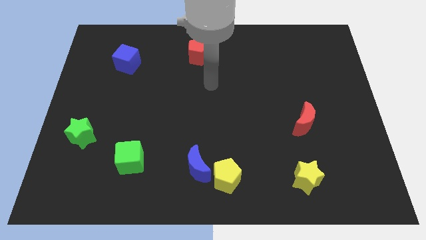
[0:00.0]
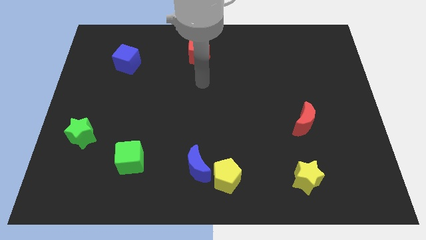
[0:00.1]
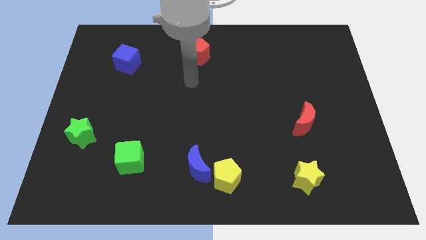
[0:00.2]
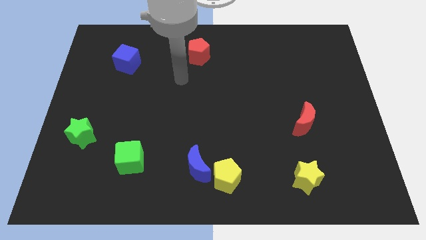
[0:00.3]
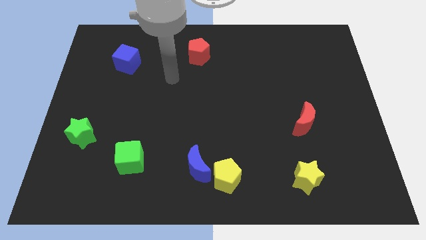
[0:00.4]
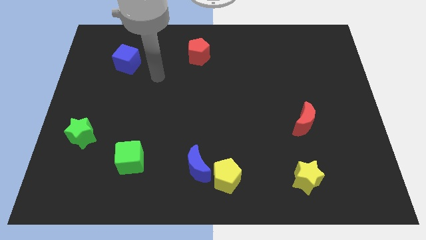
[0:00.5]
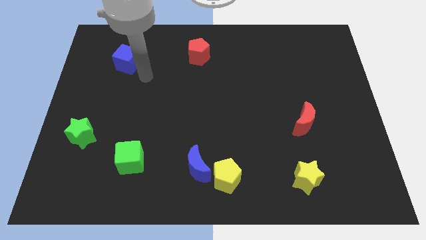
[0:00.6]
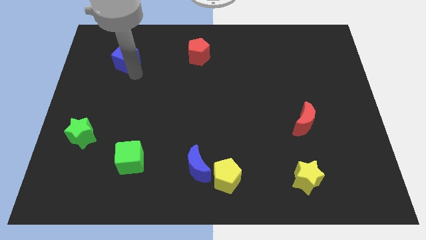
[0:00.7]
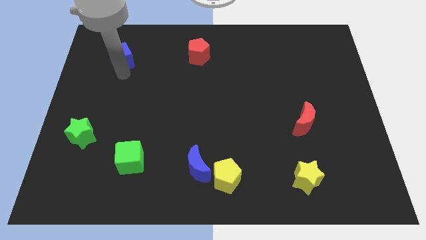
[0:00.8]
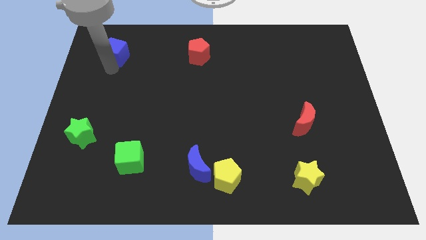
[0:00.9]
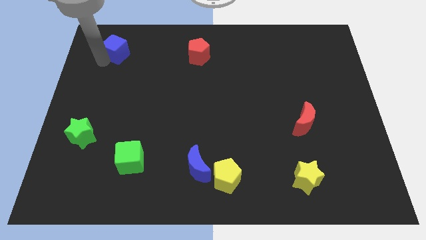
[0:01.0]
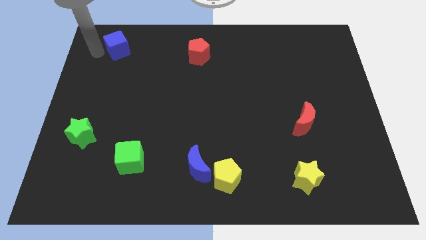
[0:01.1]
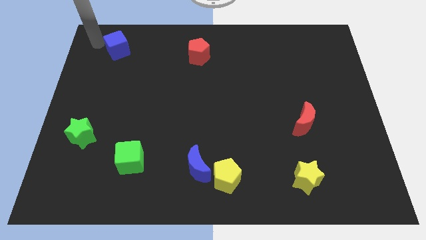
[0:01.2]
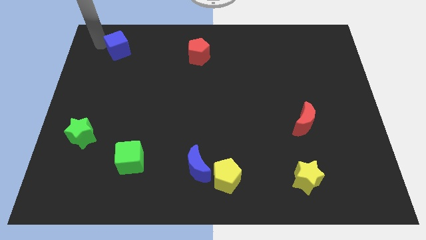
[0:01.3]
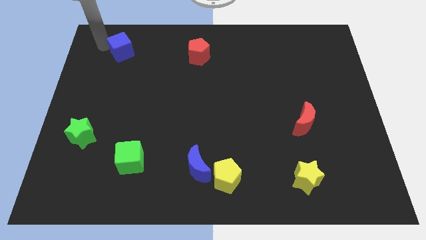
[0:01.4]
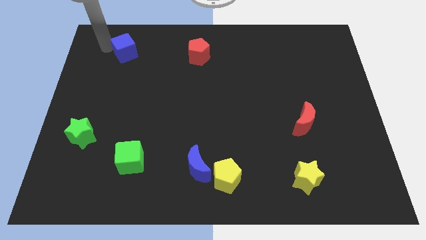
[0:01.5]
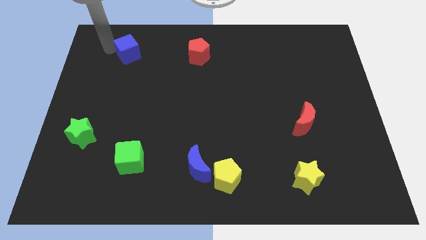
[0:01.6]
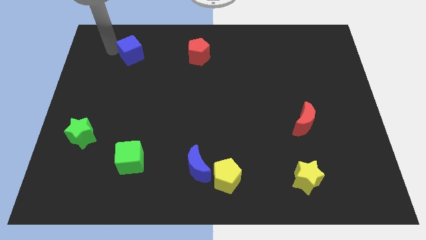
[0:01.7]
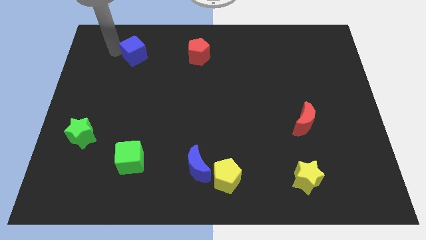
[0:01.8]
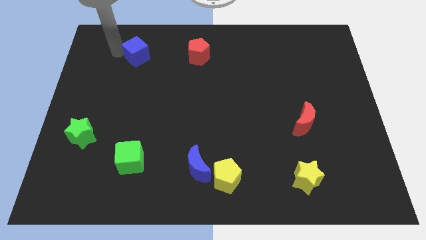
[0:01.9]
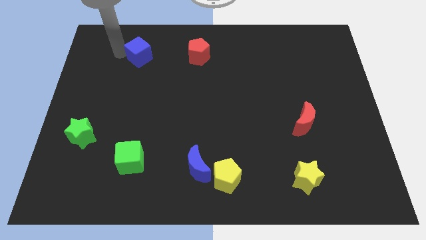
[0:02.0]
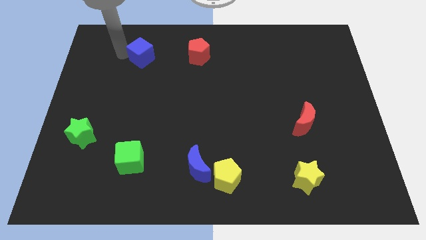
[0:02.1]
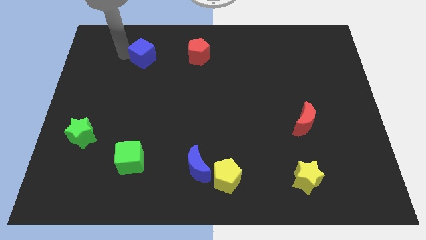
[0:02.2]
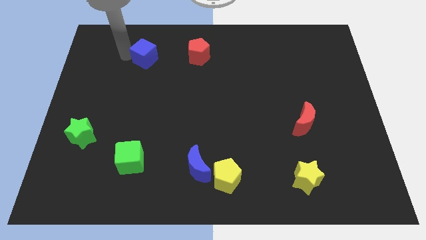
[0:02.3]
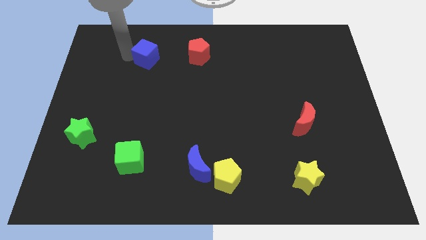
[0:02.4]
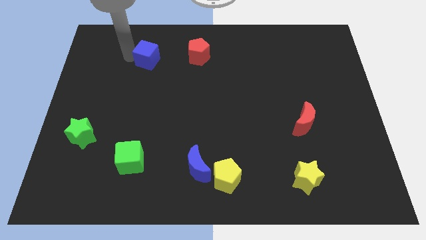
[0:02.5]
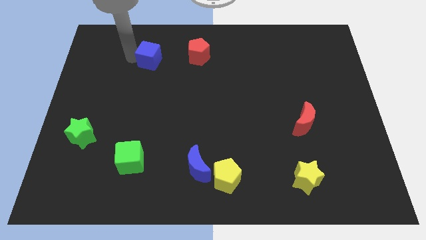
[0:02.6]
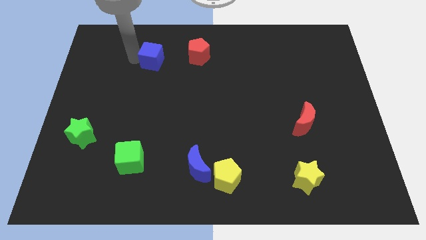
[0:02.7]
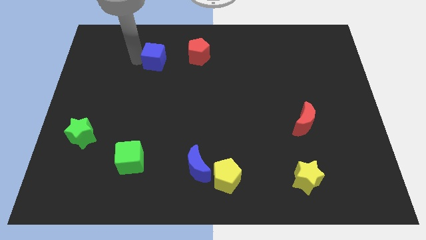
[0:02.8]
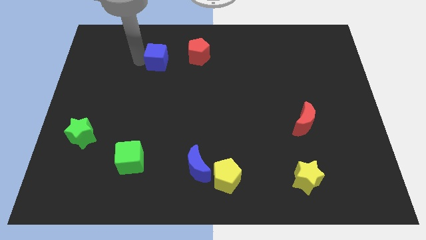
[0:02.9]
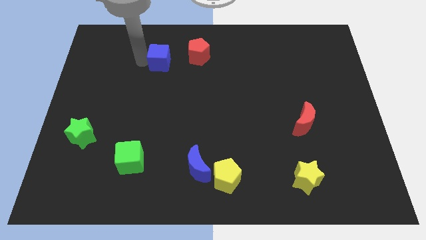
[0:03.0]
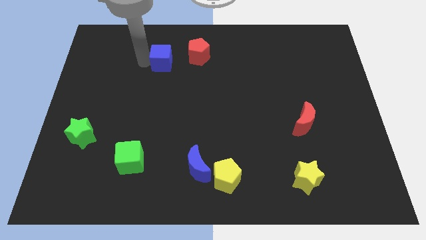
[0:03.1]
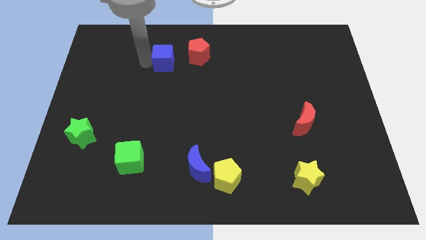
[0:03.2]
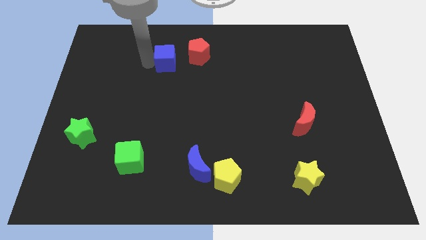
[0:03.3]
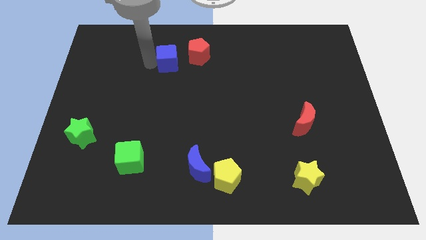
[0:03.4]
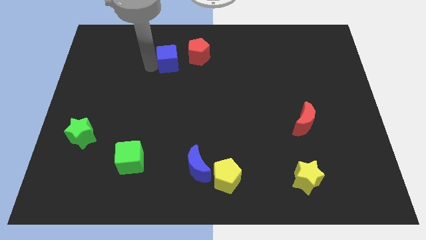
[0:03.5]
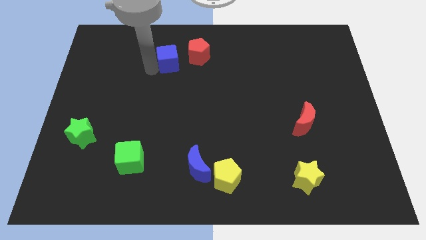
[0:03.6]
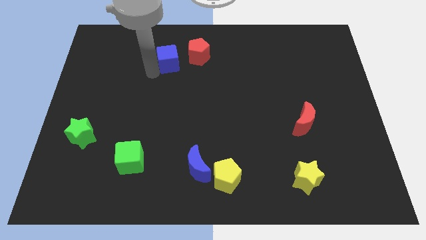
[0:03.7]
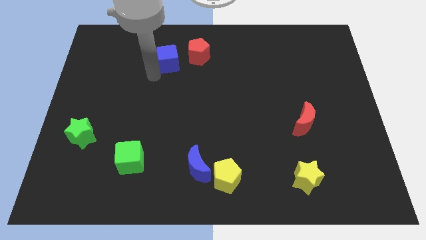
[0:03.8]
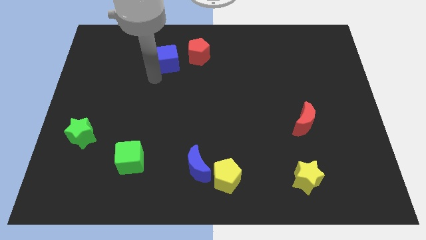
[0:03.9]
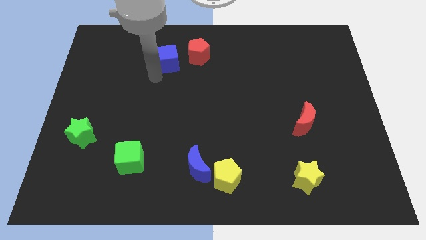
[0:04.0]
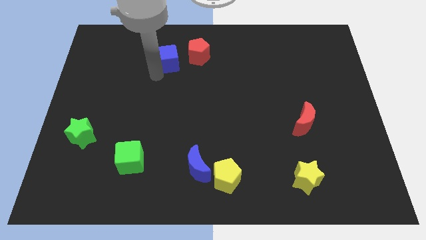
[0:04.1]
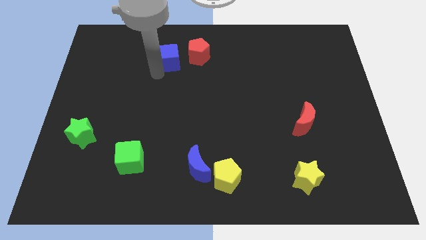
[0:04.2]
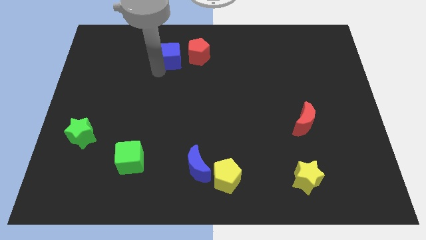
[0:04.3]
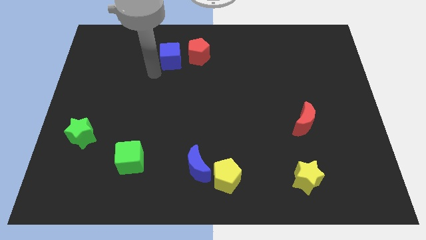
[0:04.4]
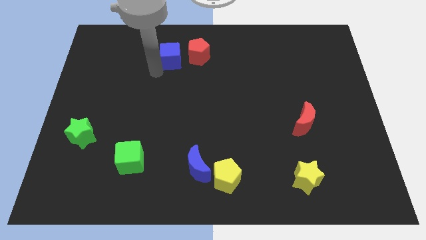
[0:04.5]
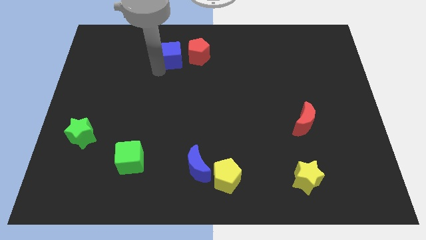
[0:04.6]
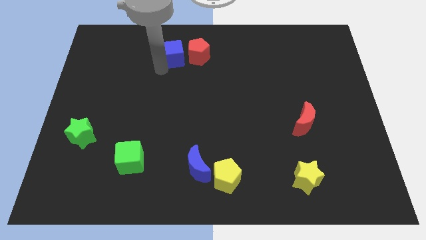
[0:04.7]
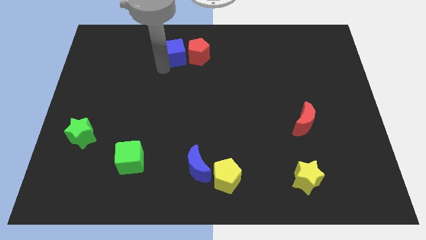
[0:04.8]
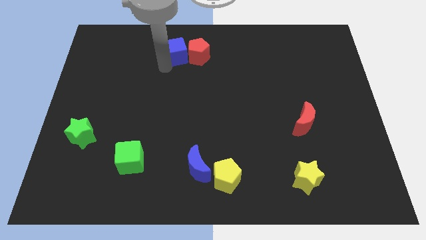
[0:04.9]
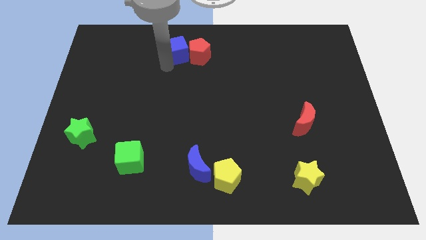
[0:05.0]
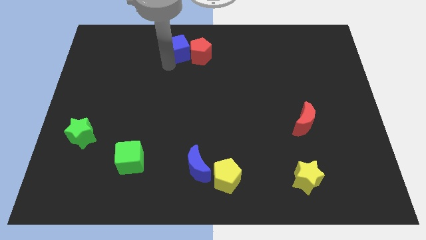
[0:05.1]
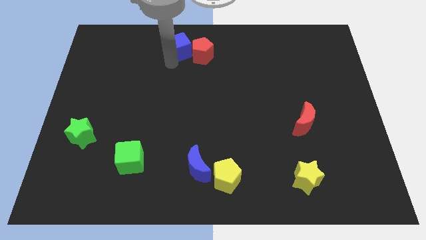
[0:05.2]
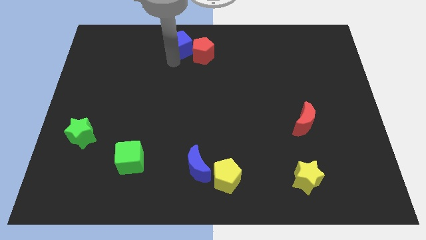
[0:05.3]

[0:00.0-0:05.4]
move the blue cube to the top side
